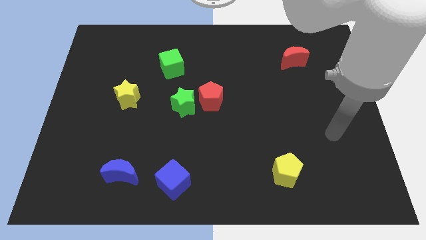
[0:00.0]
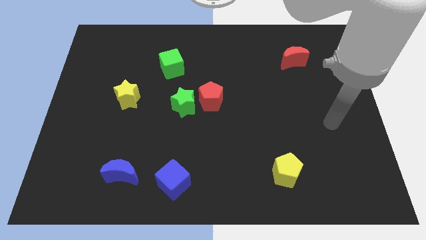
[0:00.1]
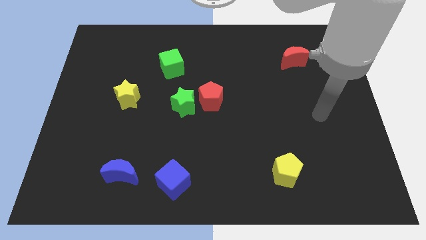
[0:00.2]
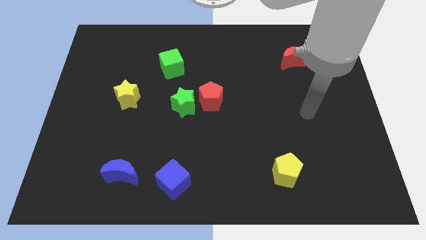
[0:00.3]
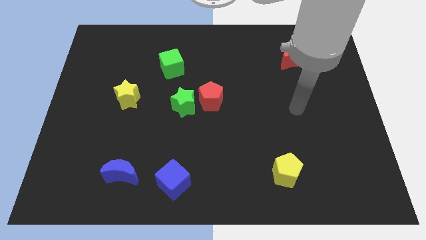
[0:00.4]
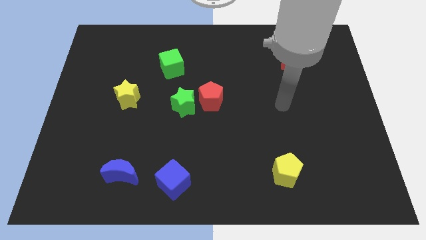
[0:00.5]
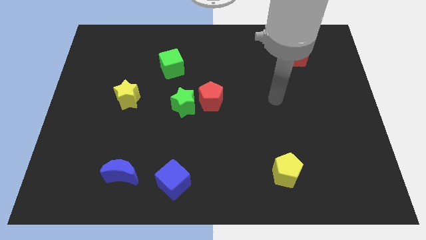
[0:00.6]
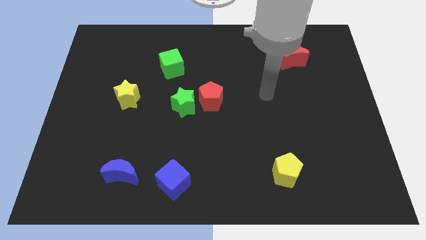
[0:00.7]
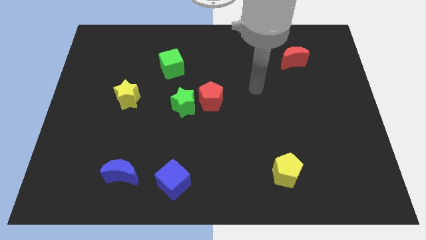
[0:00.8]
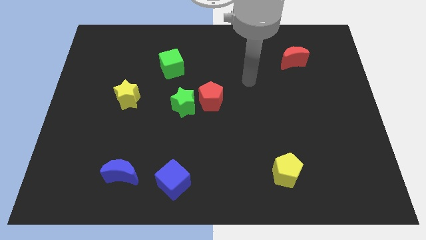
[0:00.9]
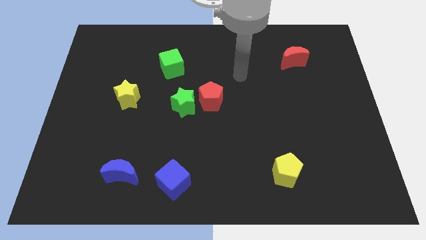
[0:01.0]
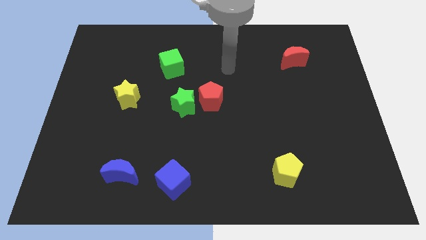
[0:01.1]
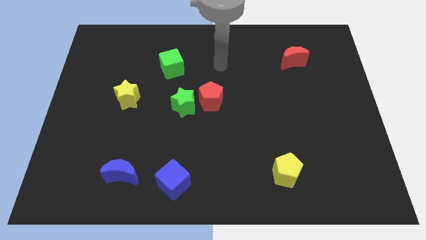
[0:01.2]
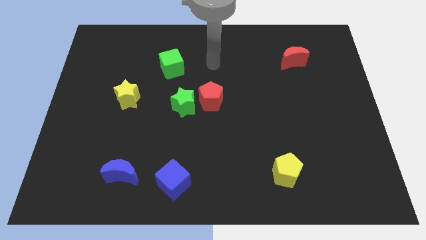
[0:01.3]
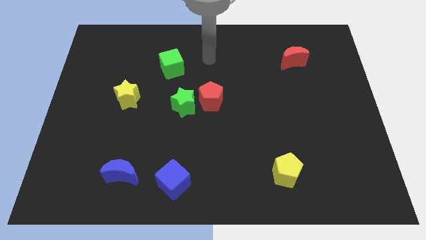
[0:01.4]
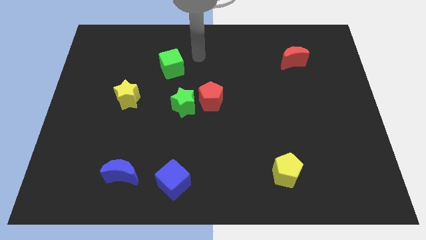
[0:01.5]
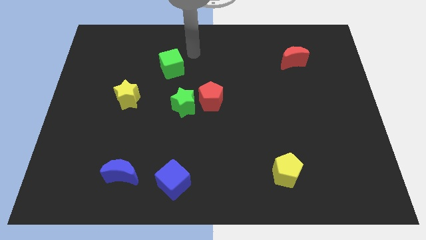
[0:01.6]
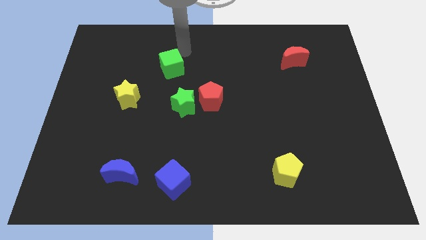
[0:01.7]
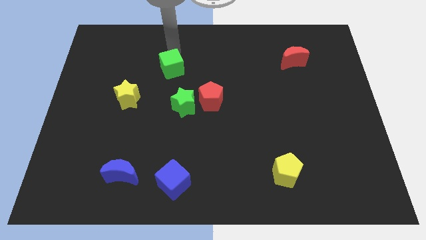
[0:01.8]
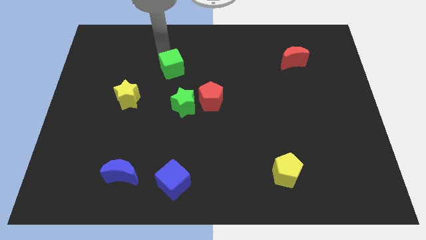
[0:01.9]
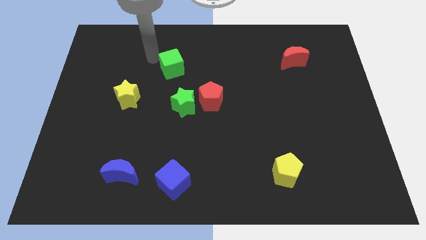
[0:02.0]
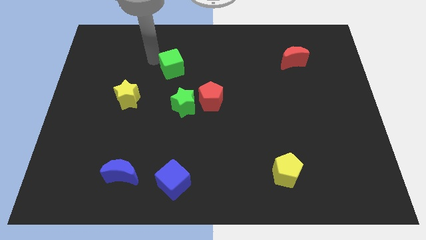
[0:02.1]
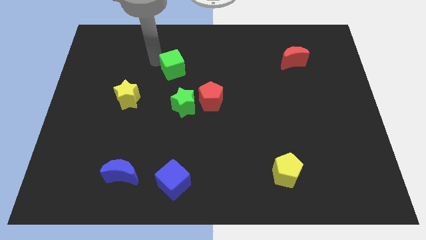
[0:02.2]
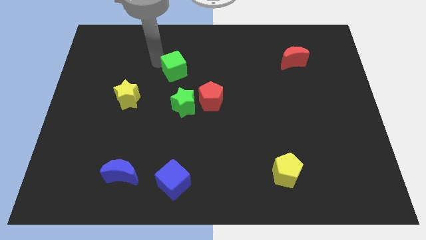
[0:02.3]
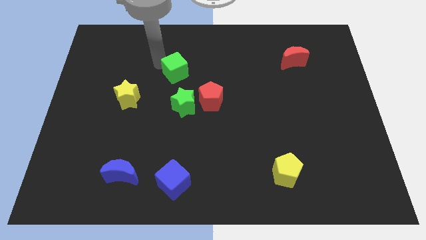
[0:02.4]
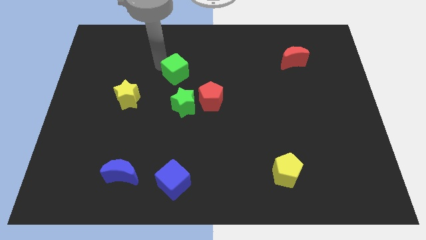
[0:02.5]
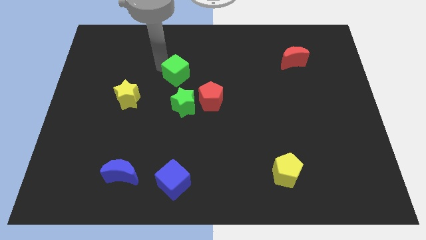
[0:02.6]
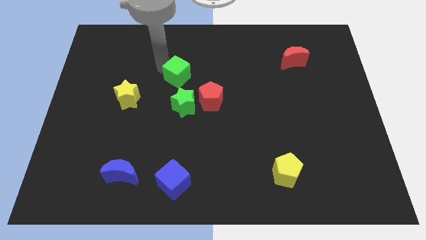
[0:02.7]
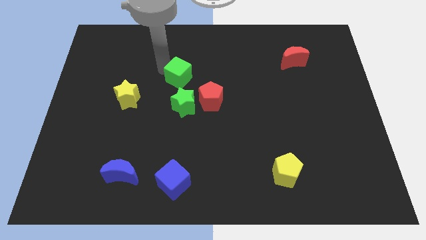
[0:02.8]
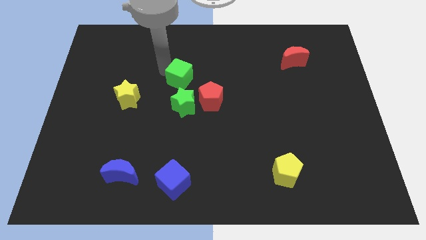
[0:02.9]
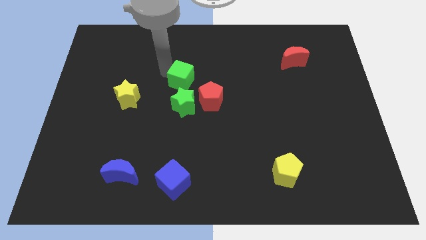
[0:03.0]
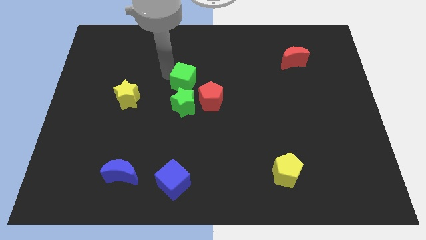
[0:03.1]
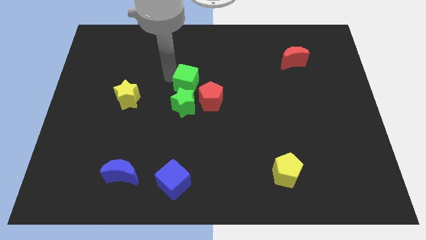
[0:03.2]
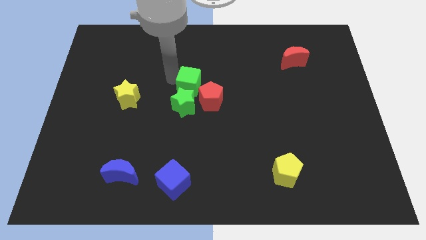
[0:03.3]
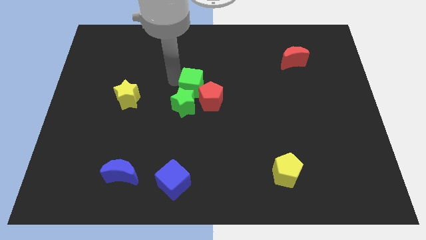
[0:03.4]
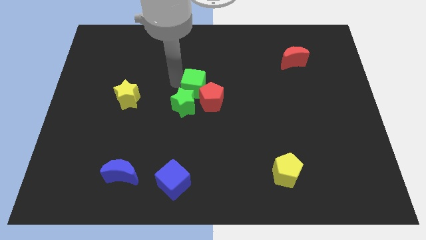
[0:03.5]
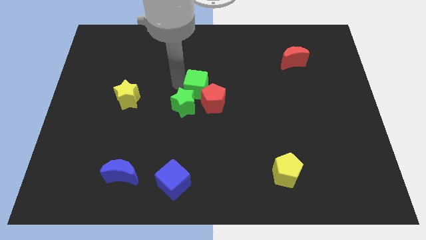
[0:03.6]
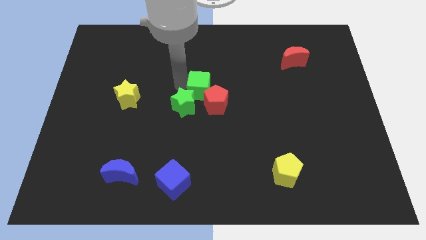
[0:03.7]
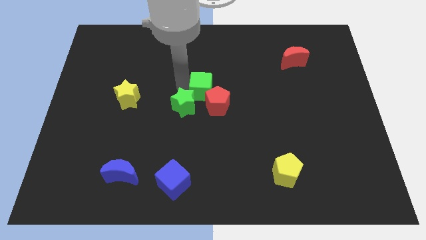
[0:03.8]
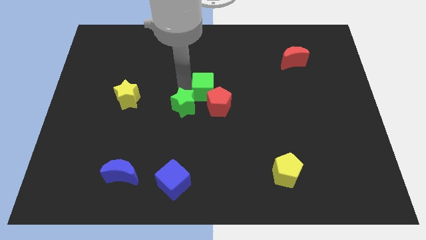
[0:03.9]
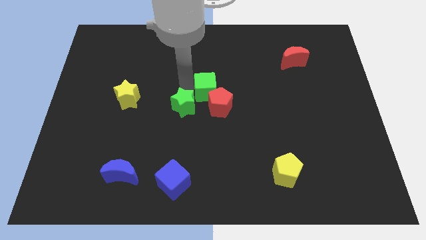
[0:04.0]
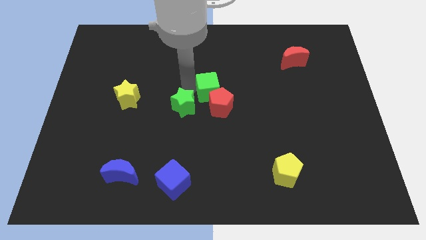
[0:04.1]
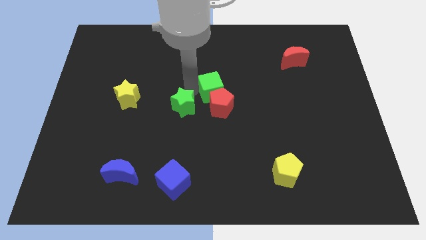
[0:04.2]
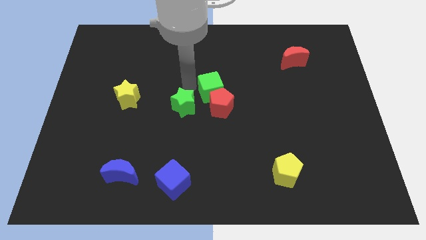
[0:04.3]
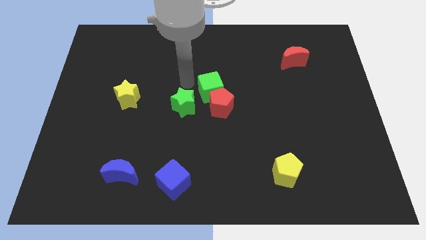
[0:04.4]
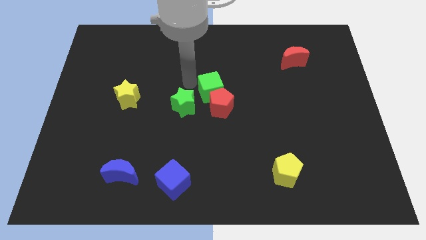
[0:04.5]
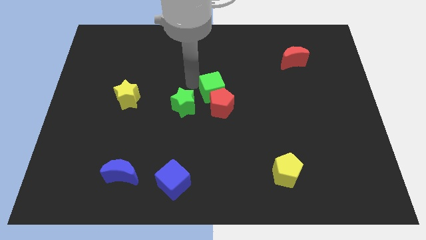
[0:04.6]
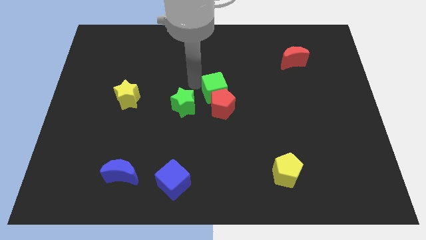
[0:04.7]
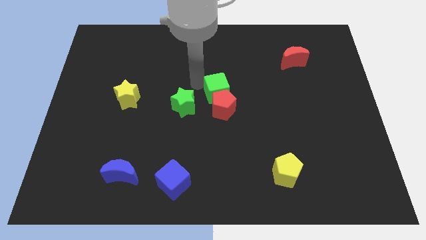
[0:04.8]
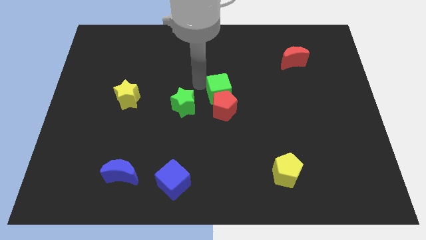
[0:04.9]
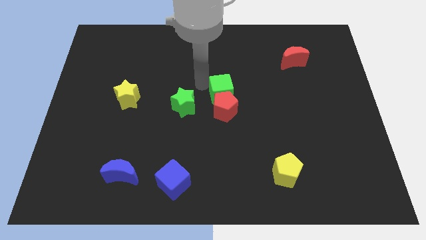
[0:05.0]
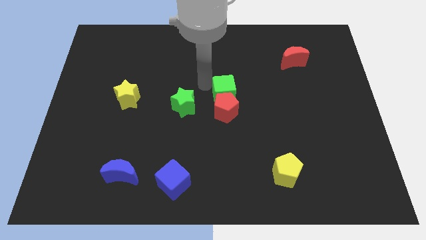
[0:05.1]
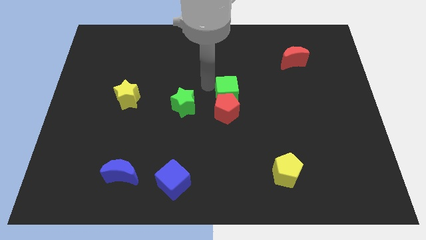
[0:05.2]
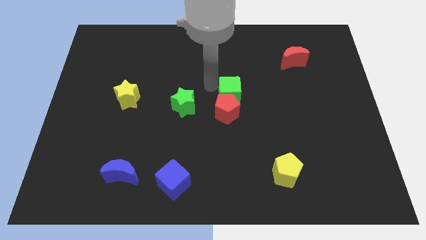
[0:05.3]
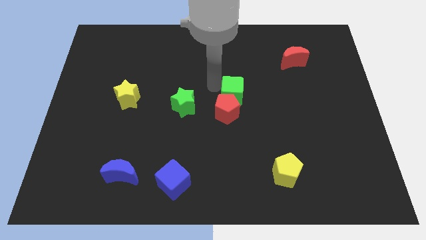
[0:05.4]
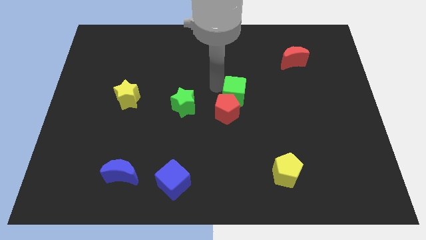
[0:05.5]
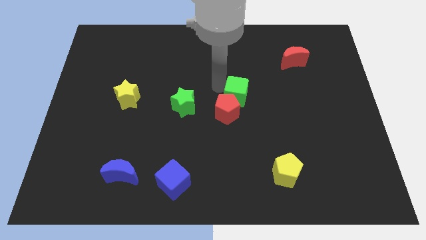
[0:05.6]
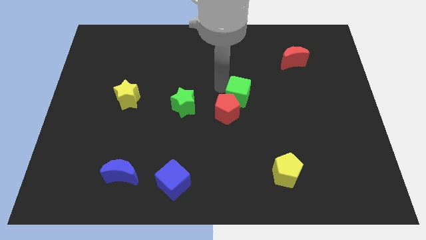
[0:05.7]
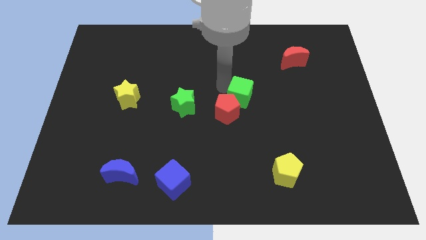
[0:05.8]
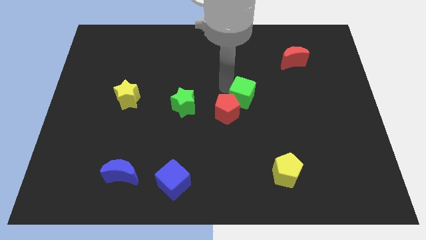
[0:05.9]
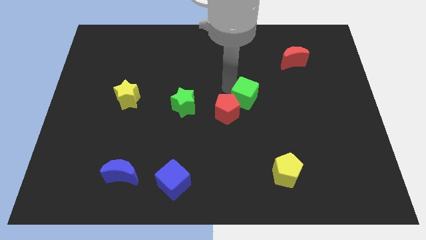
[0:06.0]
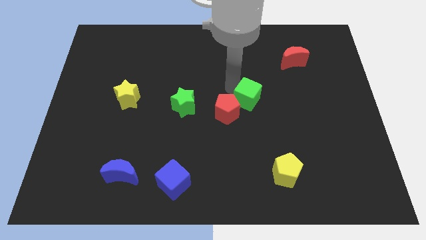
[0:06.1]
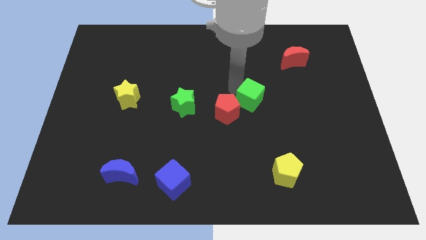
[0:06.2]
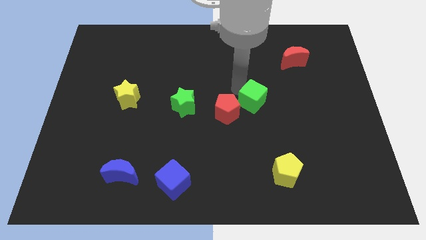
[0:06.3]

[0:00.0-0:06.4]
push the green cube downwards and right diagonally

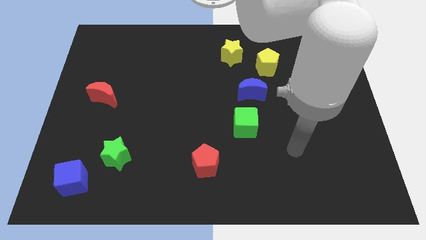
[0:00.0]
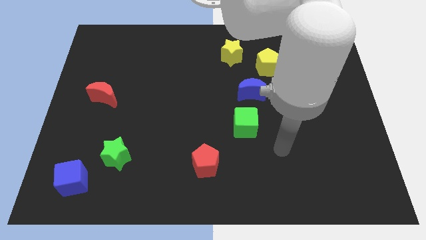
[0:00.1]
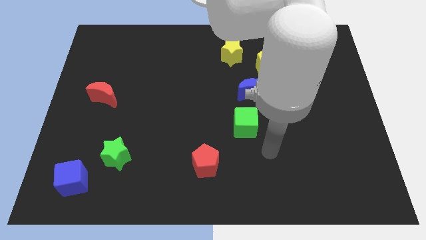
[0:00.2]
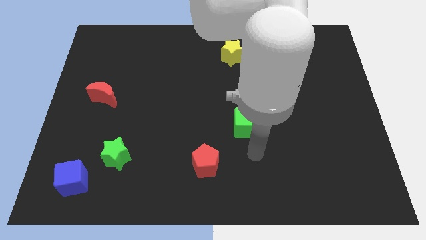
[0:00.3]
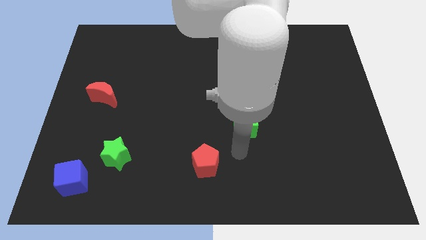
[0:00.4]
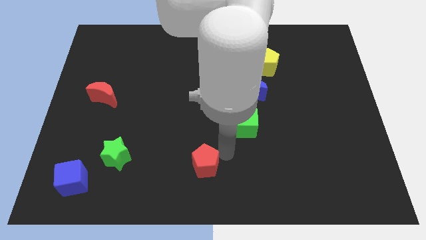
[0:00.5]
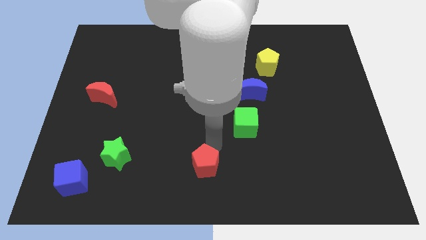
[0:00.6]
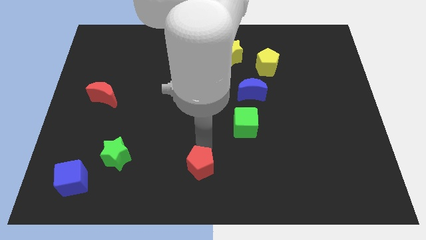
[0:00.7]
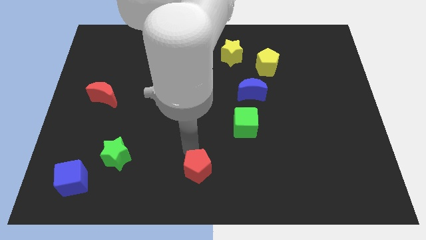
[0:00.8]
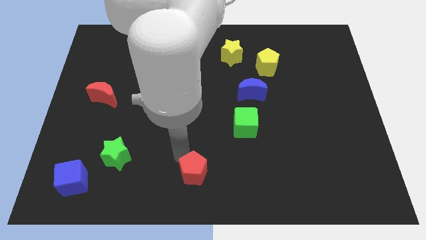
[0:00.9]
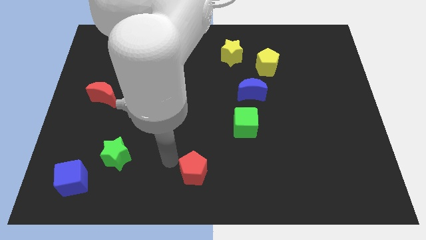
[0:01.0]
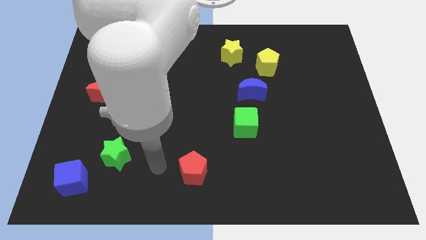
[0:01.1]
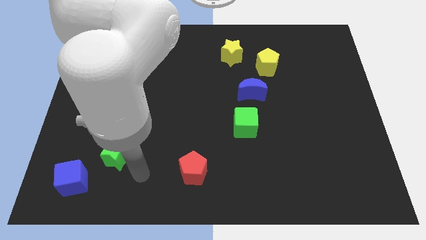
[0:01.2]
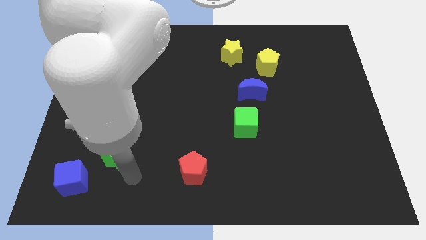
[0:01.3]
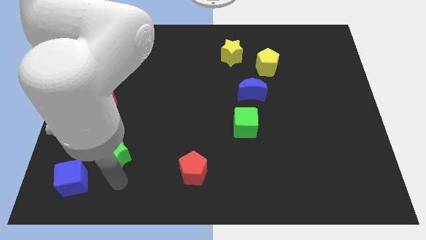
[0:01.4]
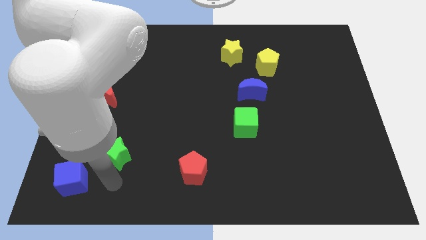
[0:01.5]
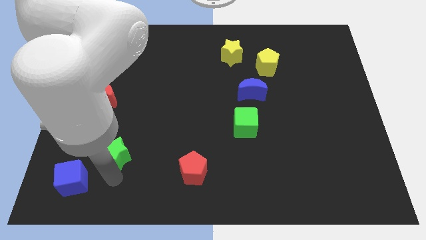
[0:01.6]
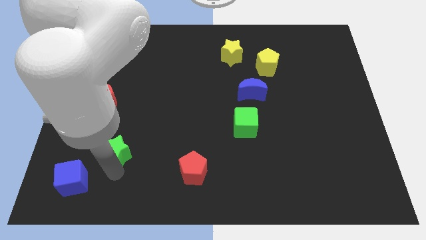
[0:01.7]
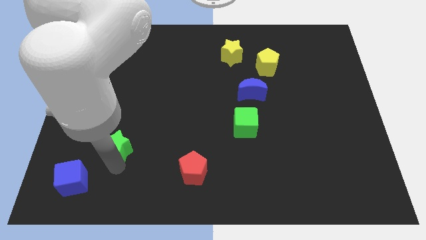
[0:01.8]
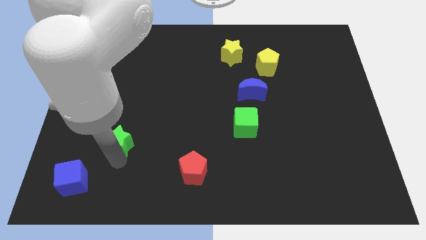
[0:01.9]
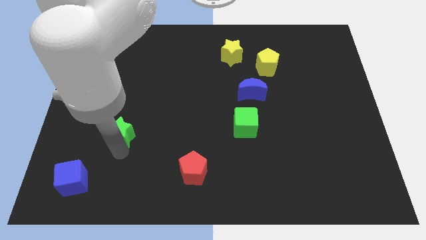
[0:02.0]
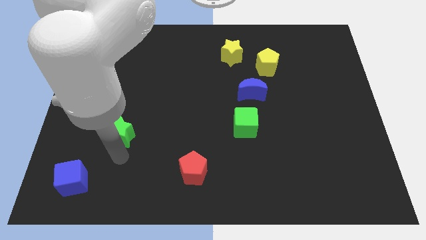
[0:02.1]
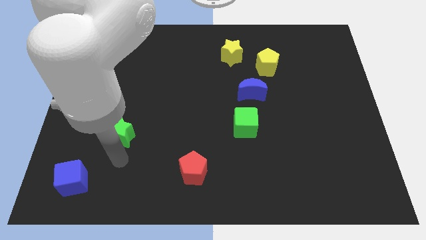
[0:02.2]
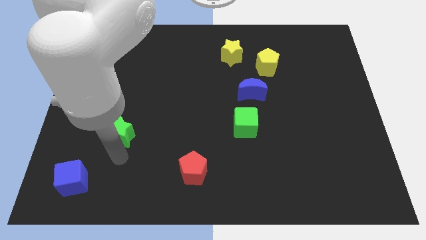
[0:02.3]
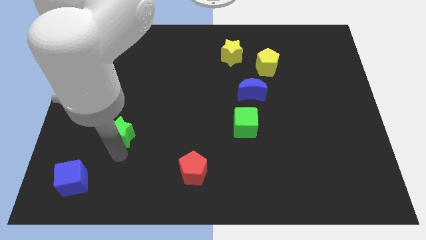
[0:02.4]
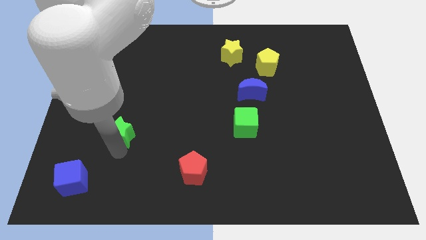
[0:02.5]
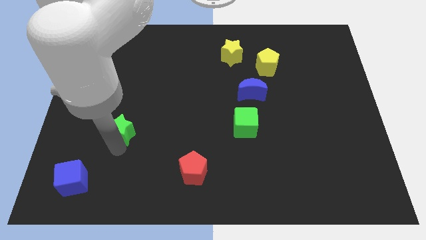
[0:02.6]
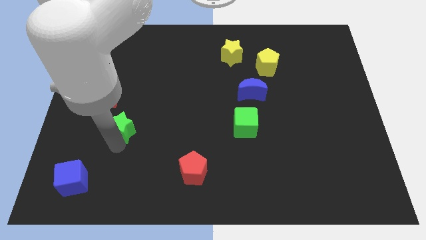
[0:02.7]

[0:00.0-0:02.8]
slide the green star a bit upwards
